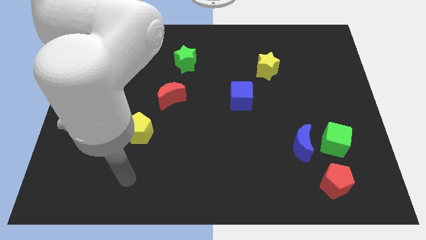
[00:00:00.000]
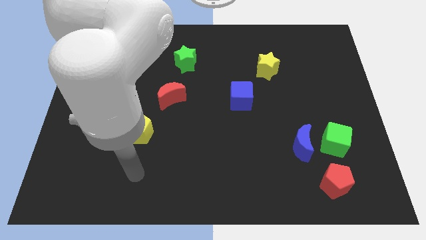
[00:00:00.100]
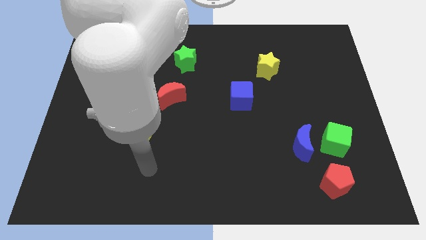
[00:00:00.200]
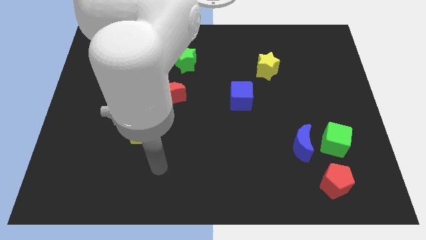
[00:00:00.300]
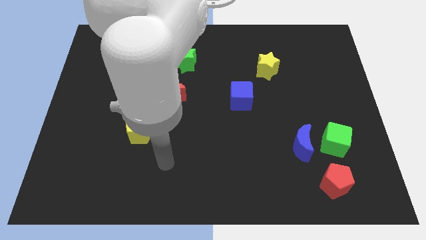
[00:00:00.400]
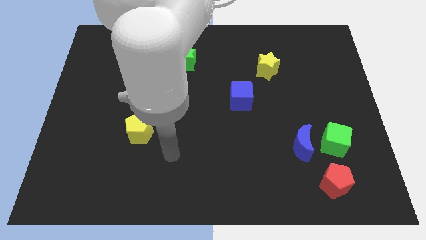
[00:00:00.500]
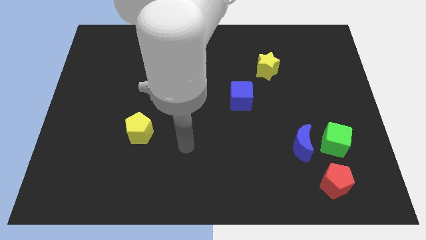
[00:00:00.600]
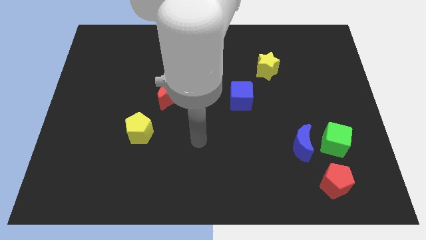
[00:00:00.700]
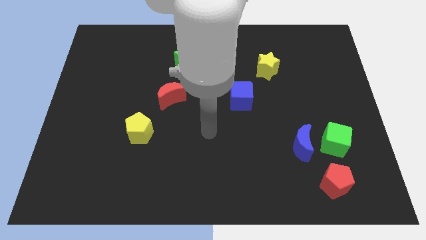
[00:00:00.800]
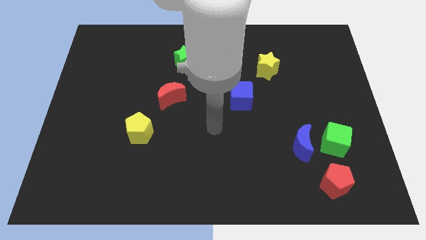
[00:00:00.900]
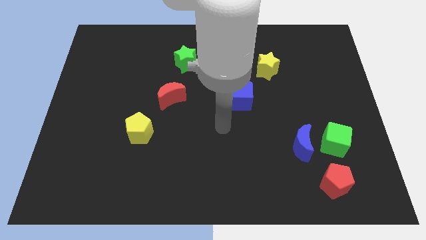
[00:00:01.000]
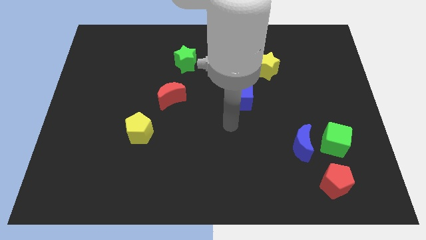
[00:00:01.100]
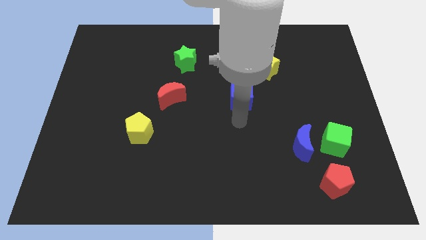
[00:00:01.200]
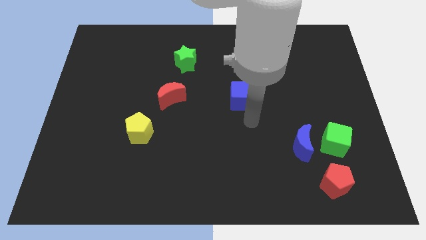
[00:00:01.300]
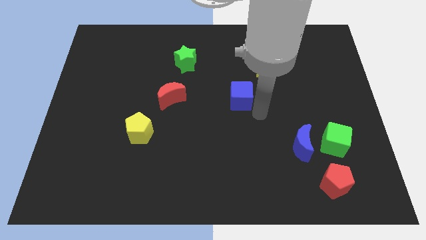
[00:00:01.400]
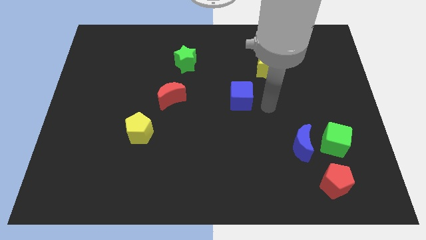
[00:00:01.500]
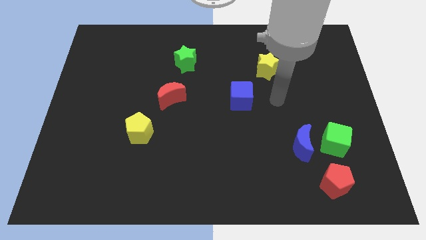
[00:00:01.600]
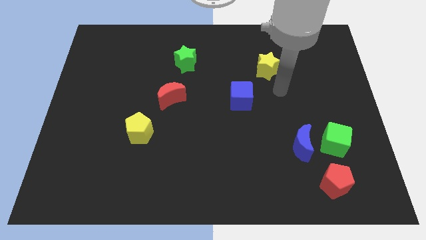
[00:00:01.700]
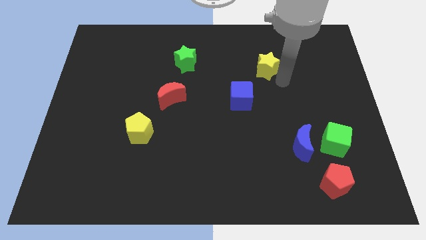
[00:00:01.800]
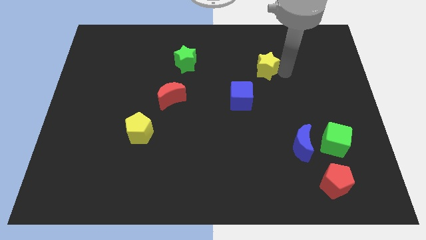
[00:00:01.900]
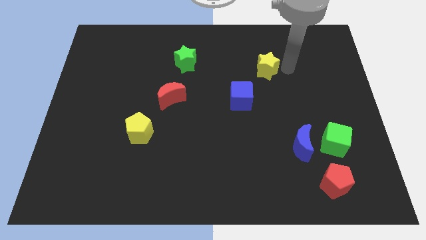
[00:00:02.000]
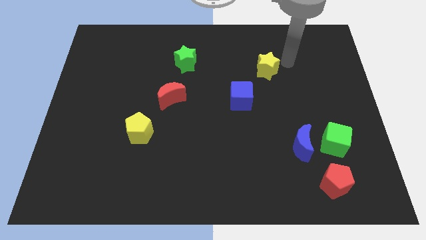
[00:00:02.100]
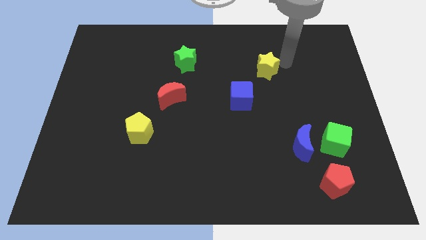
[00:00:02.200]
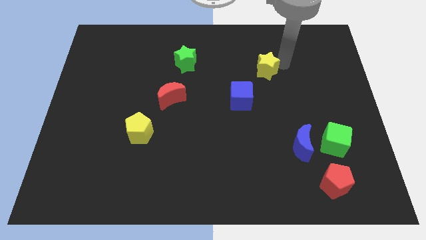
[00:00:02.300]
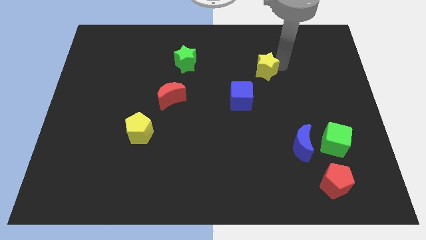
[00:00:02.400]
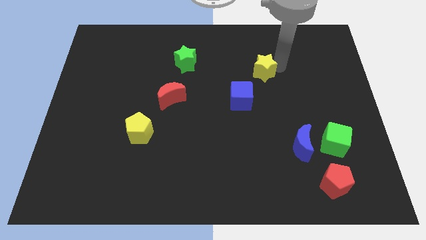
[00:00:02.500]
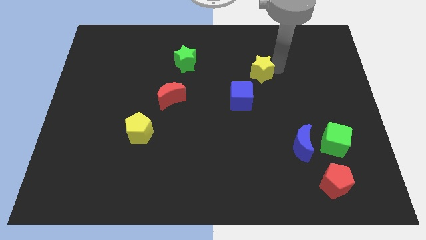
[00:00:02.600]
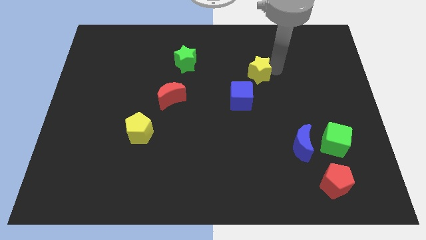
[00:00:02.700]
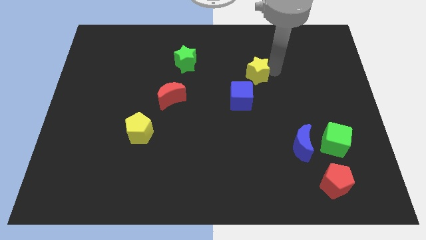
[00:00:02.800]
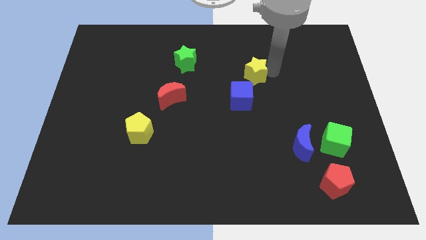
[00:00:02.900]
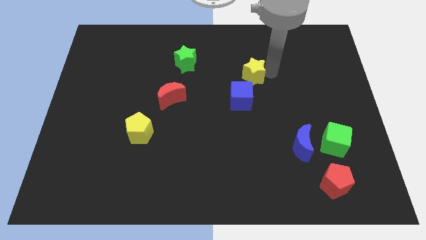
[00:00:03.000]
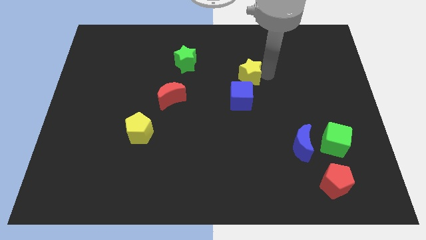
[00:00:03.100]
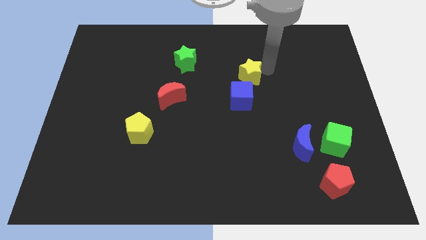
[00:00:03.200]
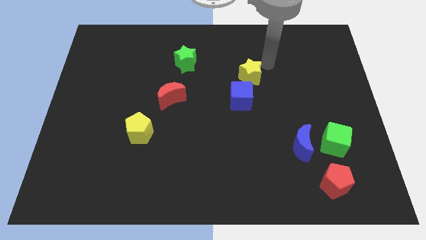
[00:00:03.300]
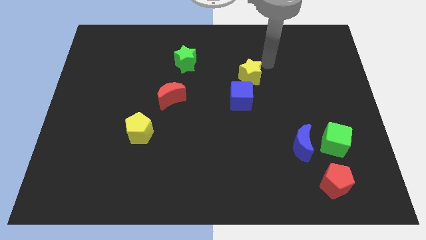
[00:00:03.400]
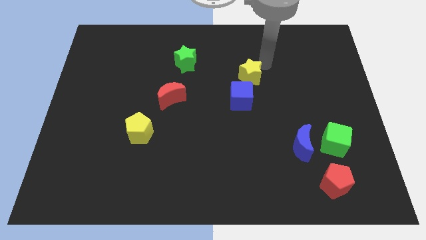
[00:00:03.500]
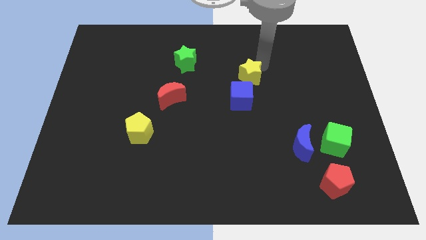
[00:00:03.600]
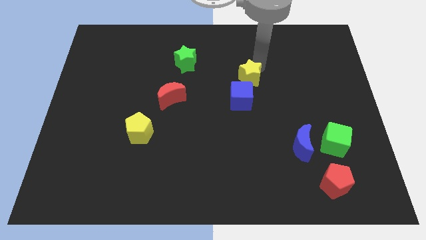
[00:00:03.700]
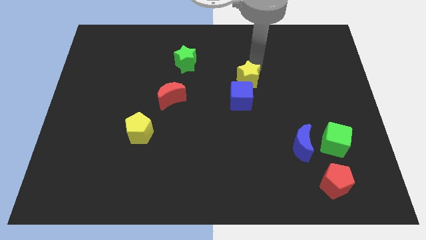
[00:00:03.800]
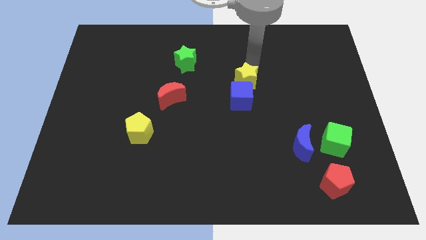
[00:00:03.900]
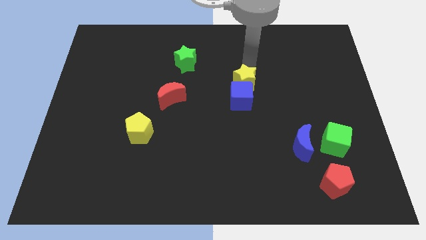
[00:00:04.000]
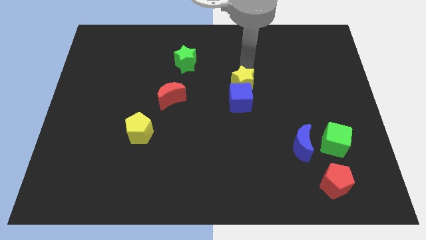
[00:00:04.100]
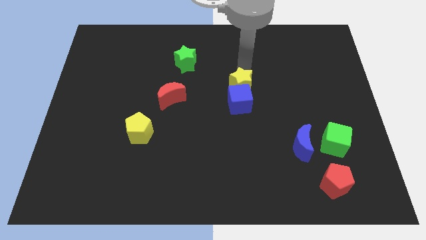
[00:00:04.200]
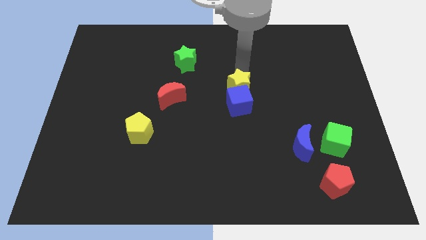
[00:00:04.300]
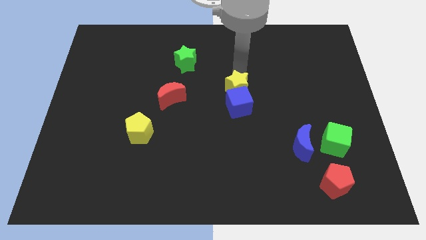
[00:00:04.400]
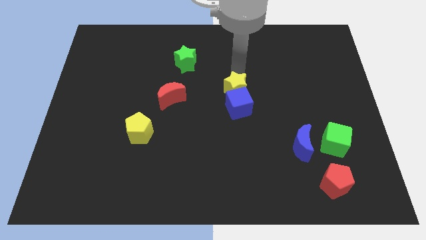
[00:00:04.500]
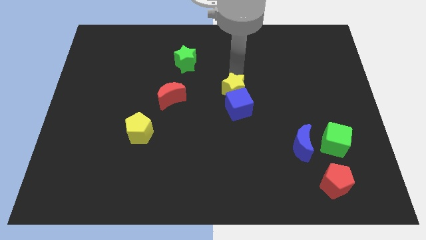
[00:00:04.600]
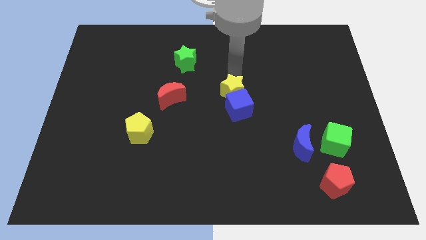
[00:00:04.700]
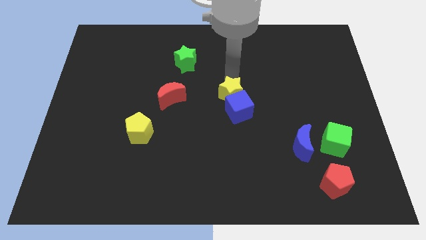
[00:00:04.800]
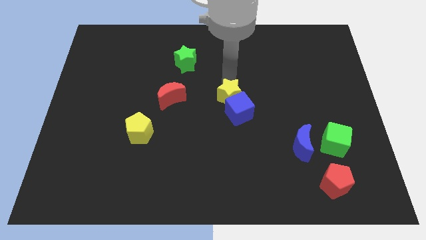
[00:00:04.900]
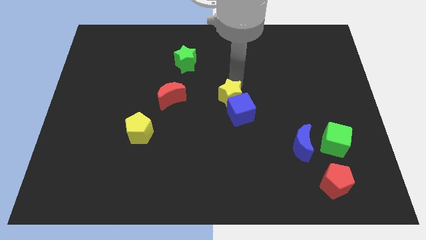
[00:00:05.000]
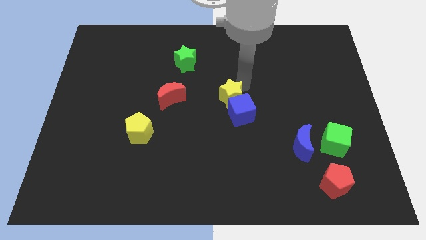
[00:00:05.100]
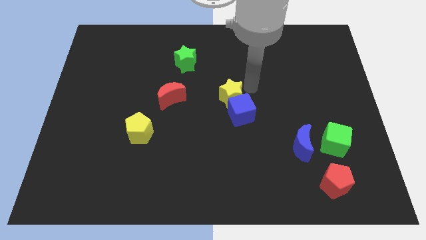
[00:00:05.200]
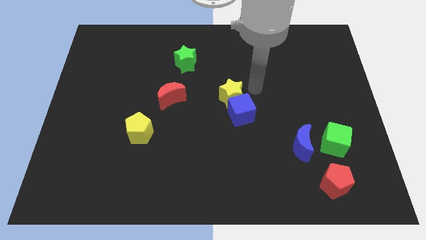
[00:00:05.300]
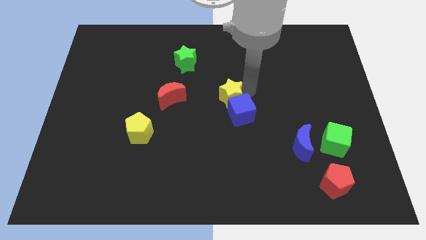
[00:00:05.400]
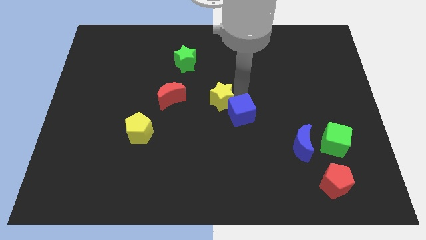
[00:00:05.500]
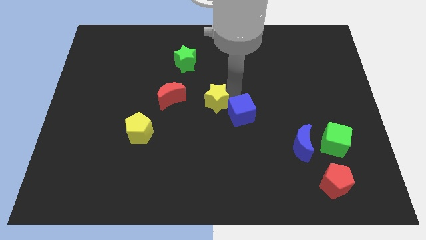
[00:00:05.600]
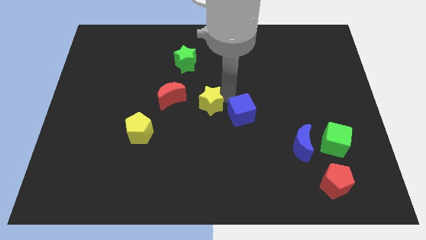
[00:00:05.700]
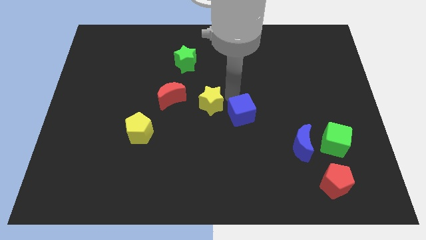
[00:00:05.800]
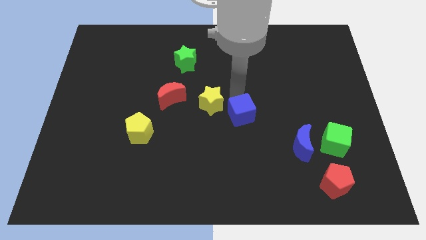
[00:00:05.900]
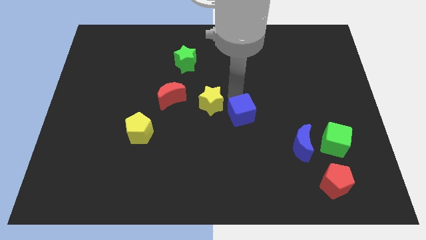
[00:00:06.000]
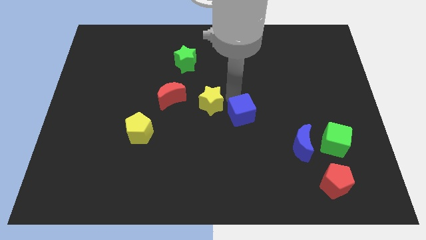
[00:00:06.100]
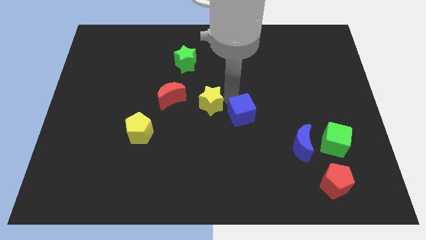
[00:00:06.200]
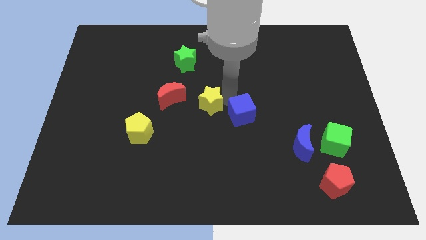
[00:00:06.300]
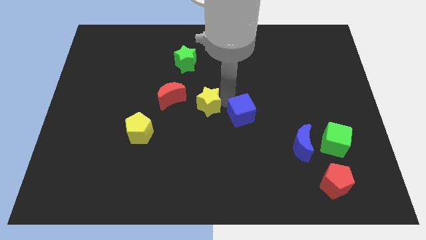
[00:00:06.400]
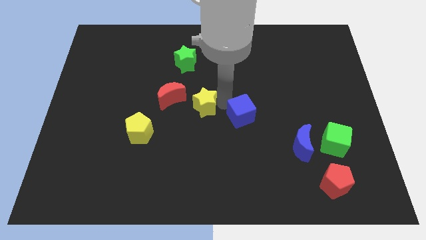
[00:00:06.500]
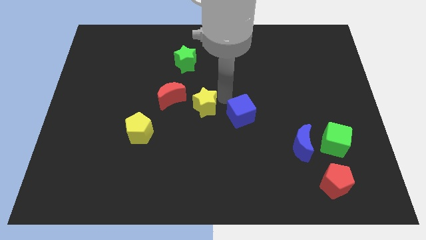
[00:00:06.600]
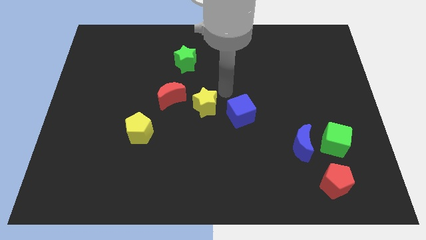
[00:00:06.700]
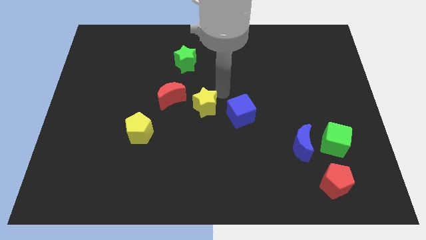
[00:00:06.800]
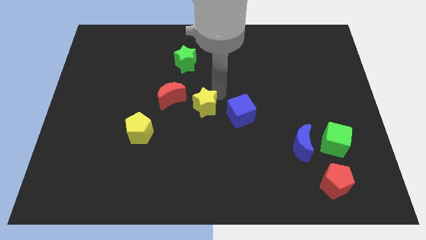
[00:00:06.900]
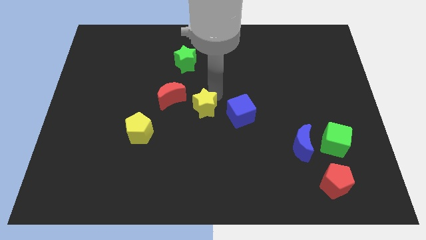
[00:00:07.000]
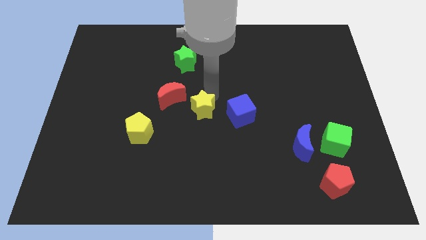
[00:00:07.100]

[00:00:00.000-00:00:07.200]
slide the yellow star down and to the left

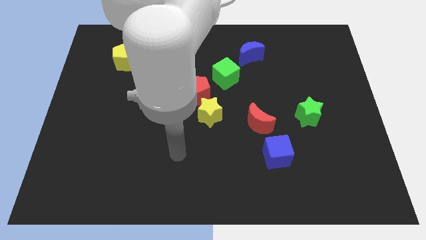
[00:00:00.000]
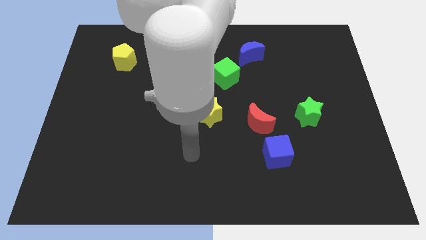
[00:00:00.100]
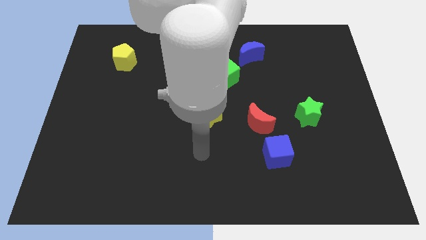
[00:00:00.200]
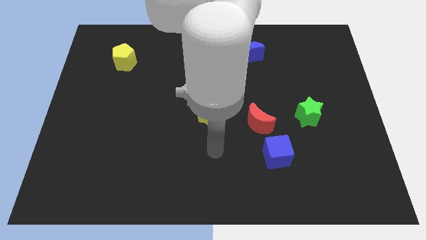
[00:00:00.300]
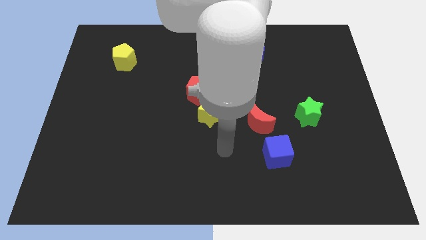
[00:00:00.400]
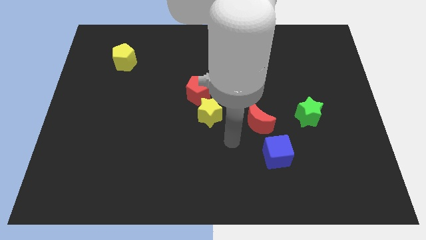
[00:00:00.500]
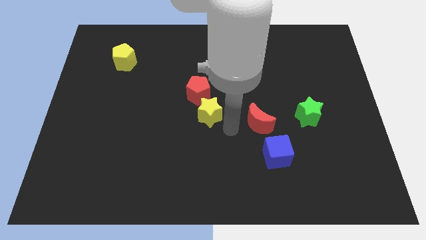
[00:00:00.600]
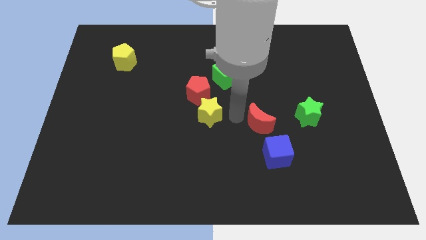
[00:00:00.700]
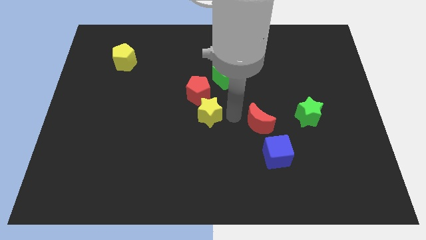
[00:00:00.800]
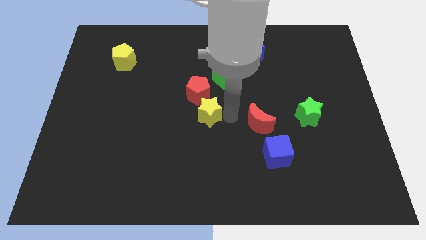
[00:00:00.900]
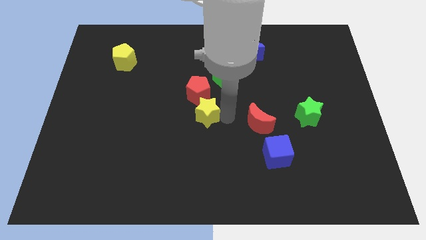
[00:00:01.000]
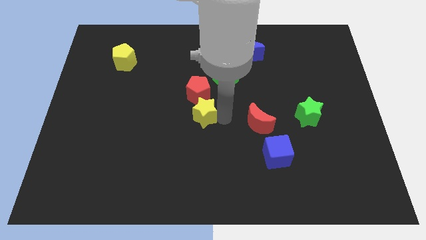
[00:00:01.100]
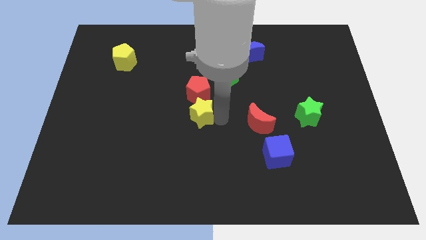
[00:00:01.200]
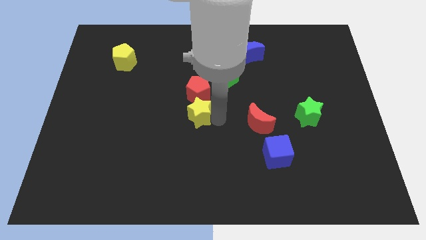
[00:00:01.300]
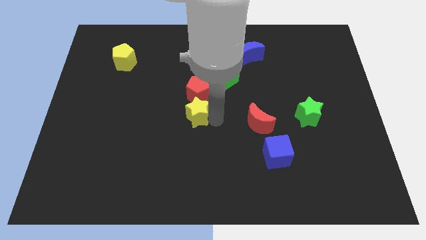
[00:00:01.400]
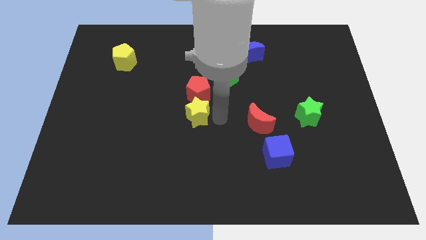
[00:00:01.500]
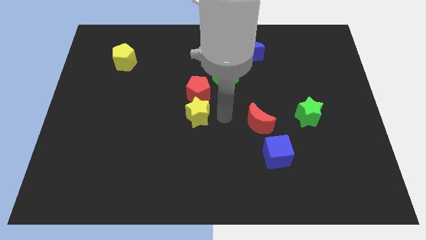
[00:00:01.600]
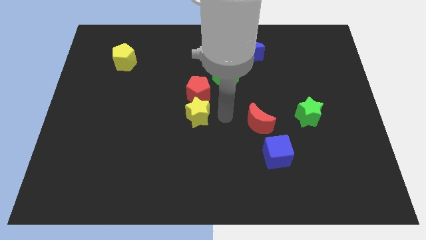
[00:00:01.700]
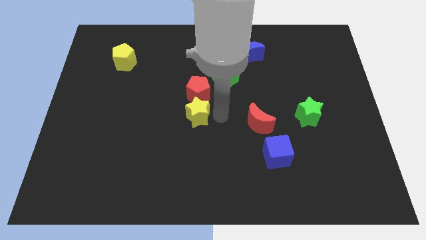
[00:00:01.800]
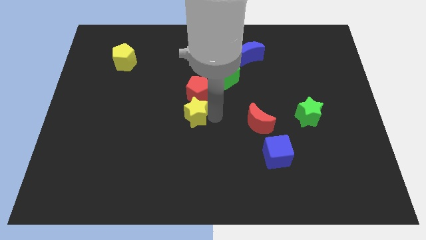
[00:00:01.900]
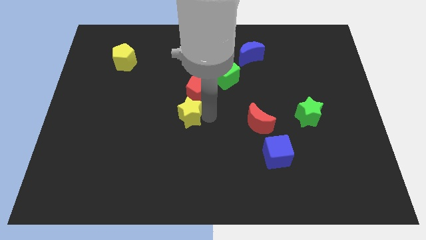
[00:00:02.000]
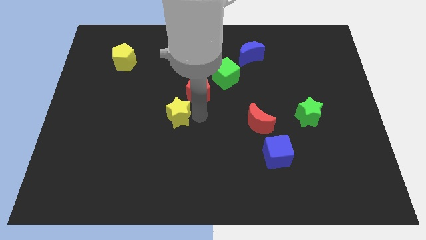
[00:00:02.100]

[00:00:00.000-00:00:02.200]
slightly slide the yellow star left
